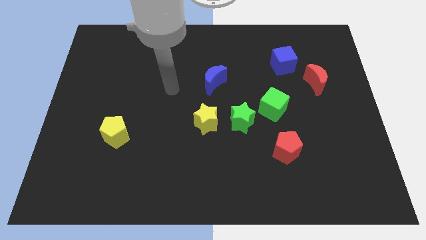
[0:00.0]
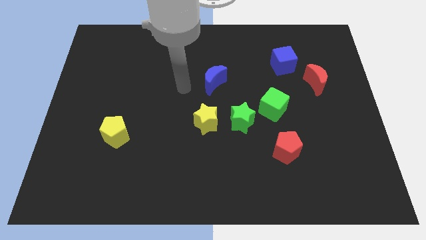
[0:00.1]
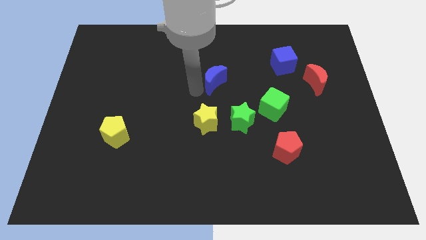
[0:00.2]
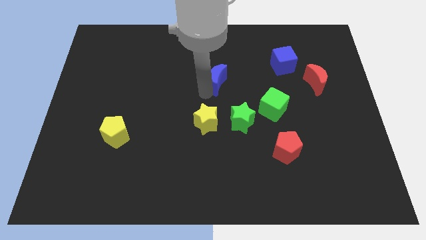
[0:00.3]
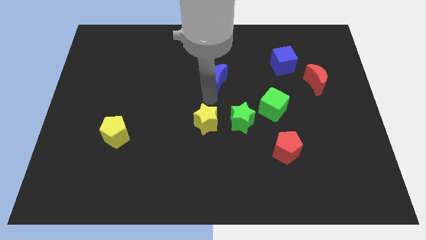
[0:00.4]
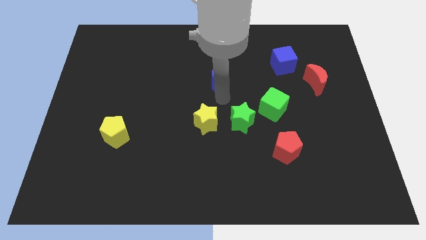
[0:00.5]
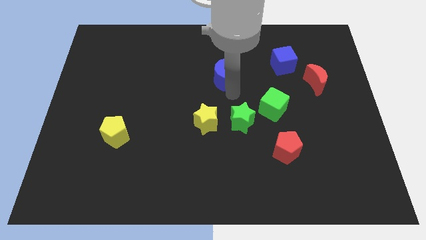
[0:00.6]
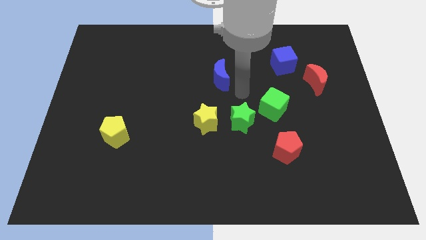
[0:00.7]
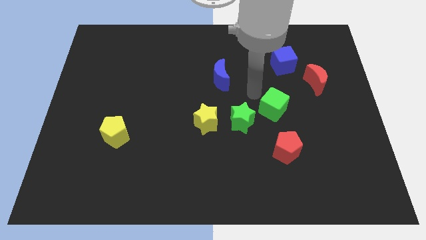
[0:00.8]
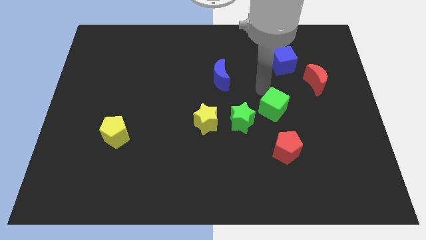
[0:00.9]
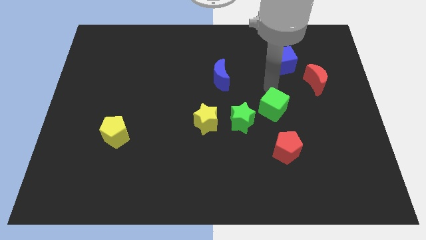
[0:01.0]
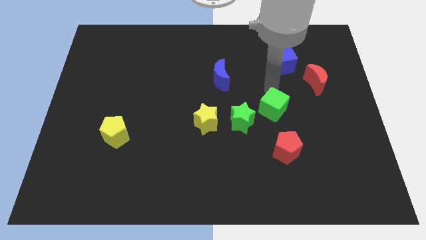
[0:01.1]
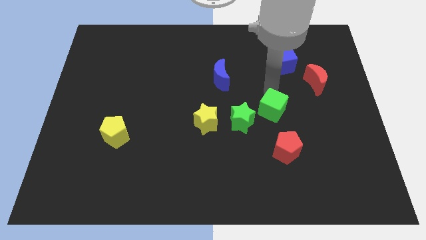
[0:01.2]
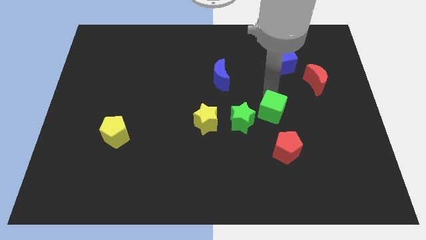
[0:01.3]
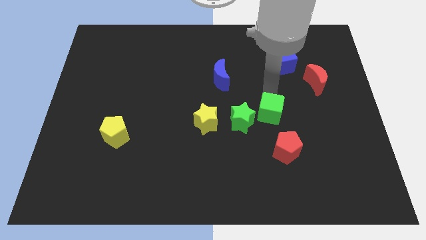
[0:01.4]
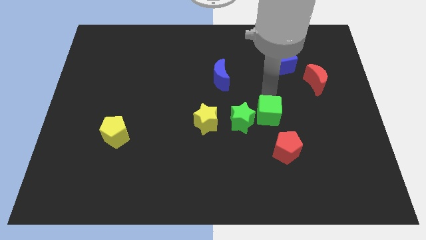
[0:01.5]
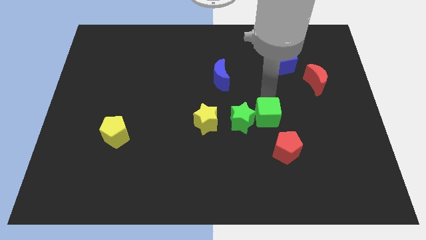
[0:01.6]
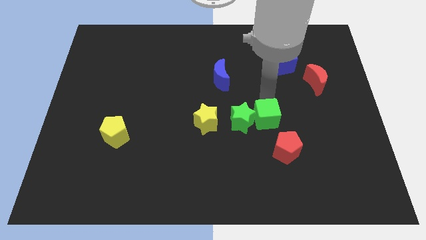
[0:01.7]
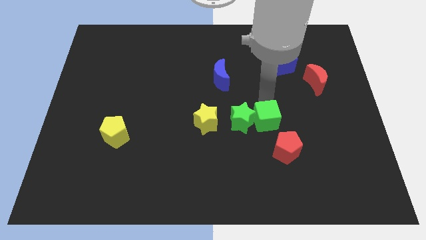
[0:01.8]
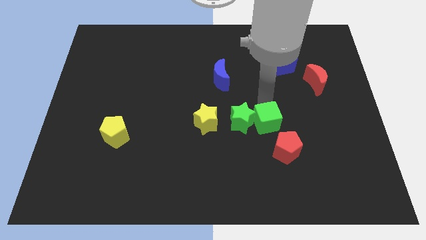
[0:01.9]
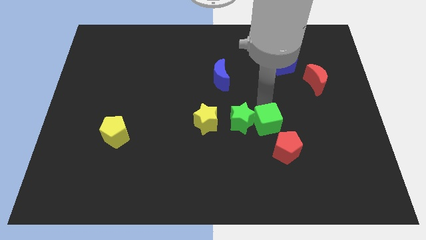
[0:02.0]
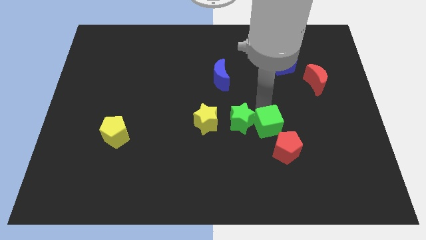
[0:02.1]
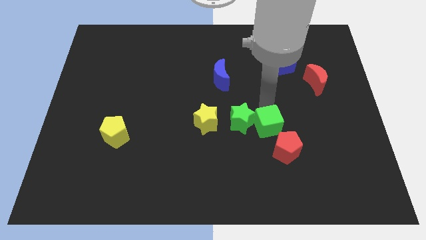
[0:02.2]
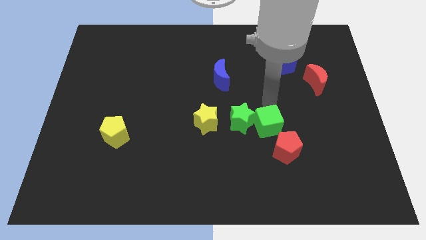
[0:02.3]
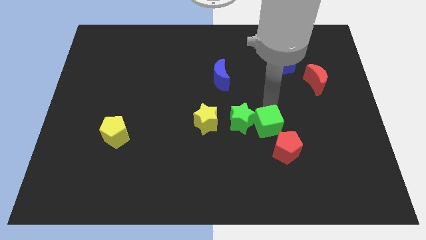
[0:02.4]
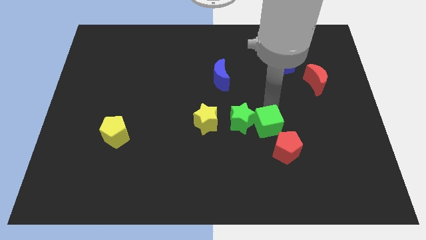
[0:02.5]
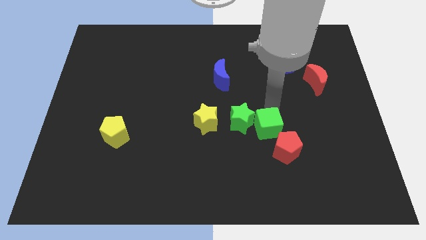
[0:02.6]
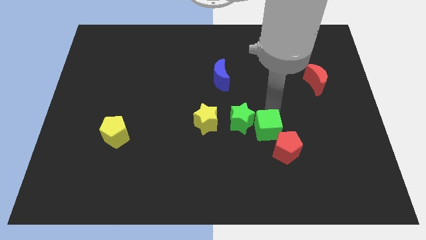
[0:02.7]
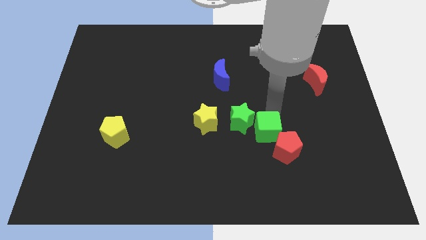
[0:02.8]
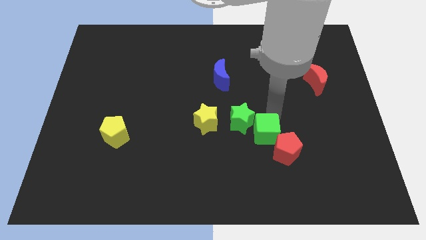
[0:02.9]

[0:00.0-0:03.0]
move the green cube down a little

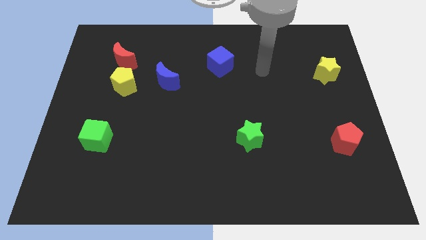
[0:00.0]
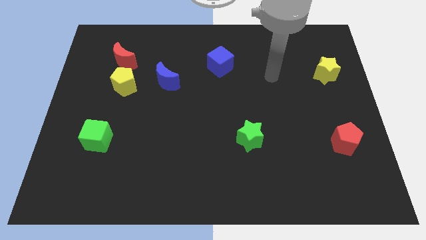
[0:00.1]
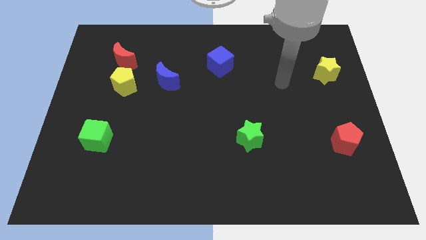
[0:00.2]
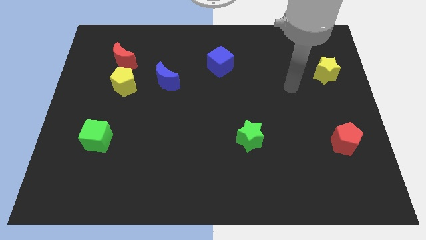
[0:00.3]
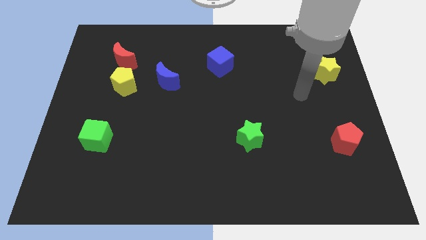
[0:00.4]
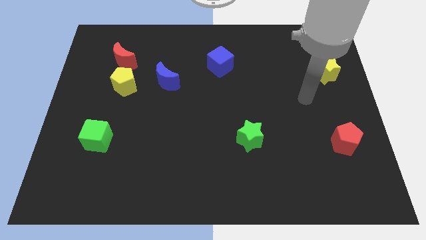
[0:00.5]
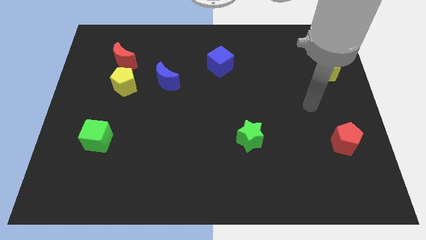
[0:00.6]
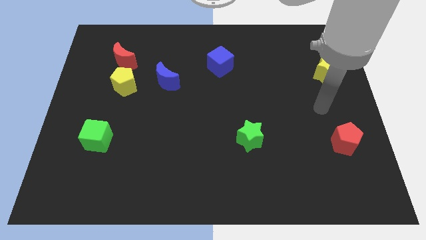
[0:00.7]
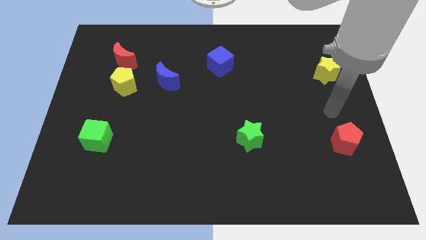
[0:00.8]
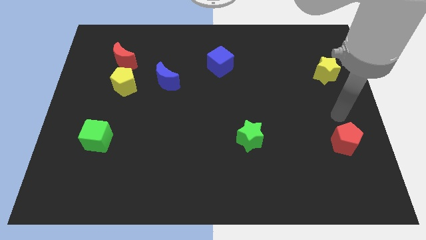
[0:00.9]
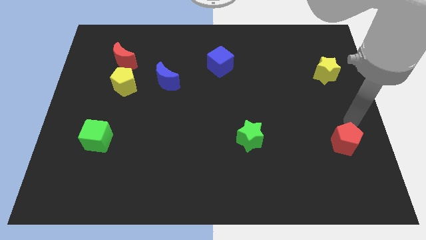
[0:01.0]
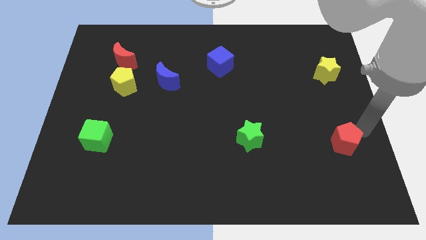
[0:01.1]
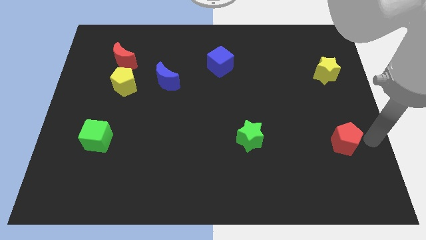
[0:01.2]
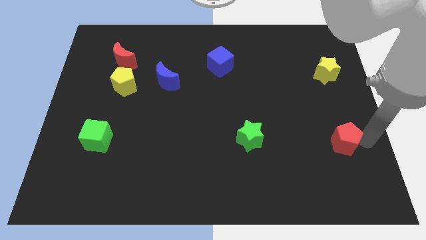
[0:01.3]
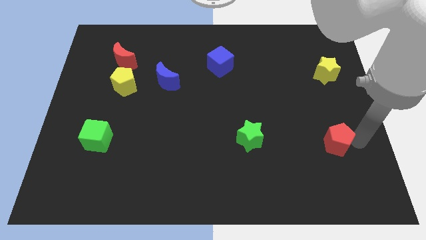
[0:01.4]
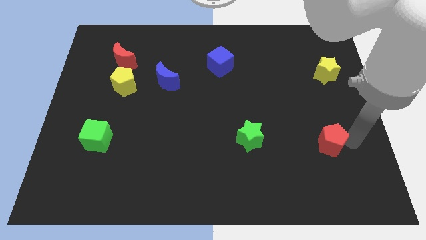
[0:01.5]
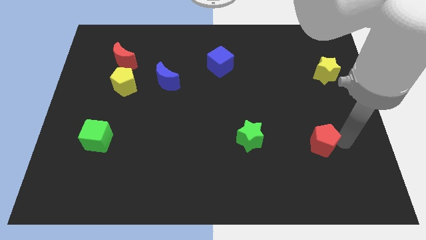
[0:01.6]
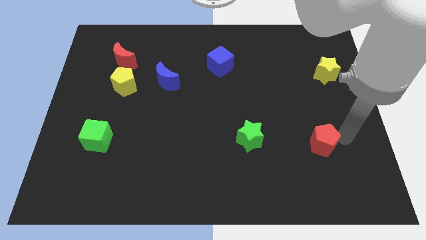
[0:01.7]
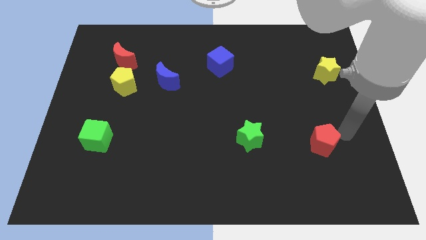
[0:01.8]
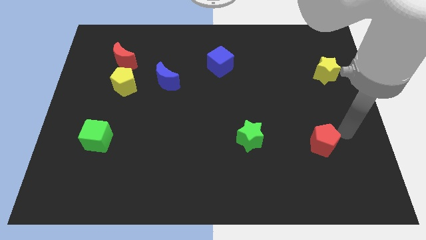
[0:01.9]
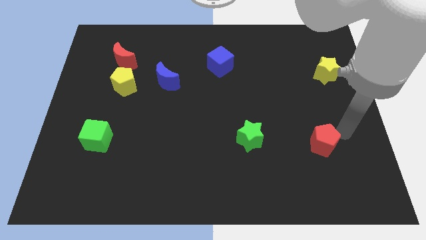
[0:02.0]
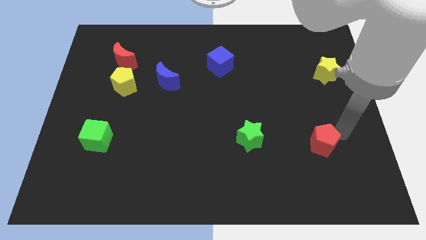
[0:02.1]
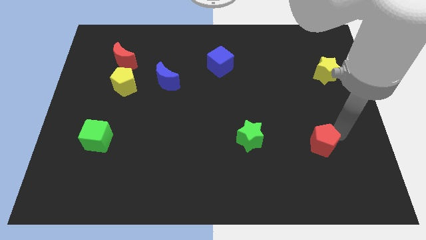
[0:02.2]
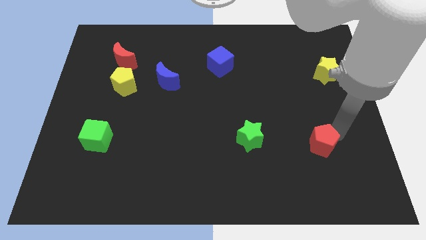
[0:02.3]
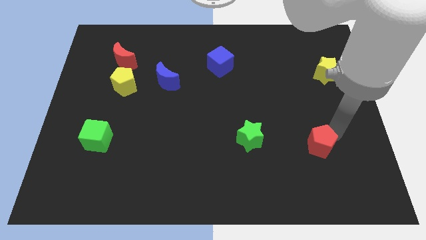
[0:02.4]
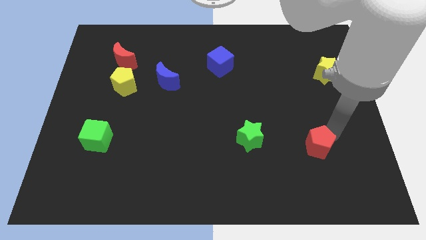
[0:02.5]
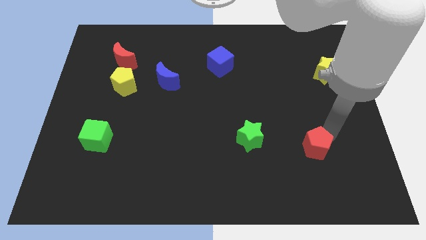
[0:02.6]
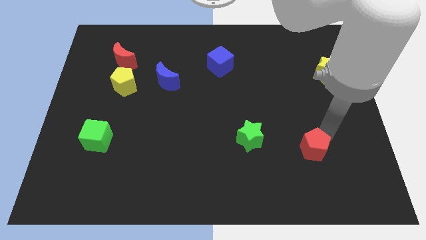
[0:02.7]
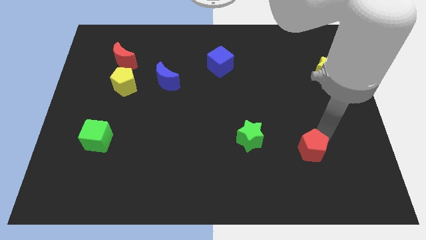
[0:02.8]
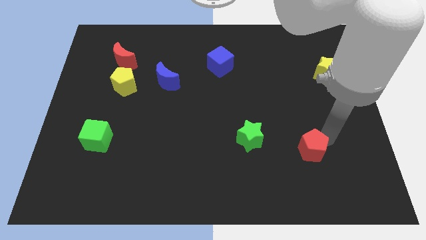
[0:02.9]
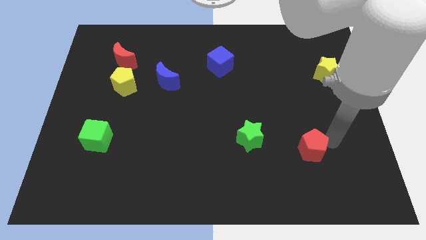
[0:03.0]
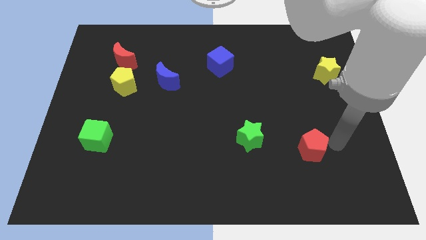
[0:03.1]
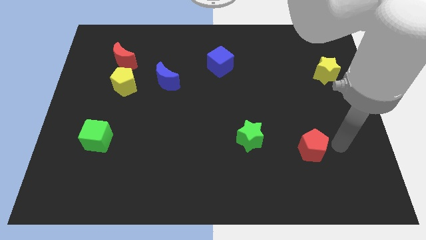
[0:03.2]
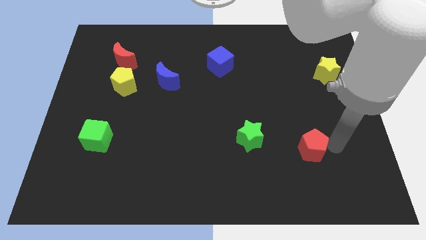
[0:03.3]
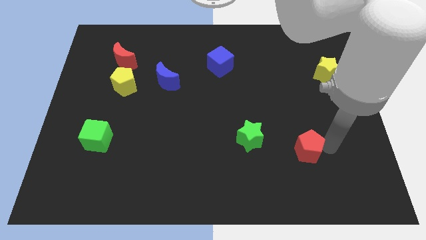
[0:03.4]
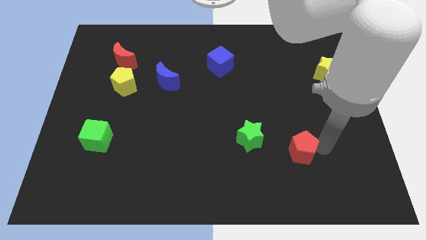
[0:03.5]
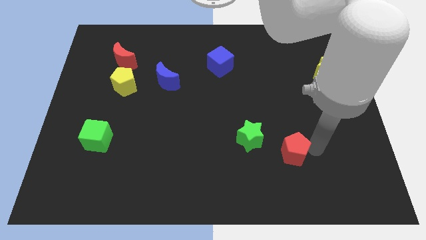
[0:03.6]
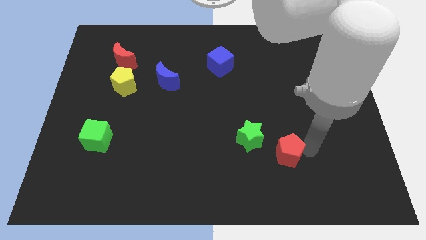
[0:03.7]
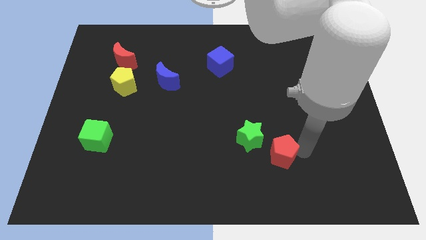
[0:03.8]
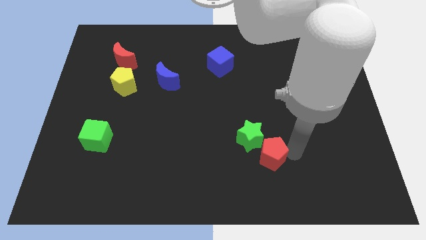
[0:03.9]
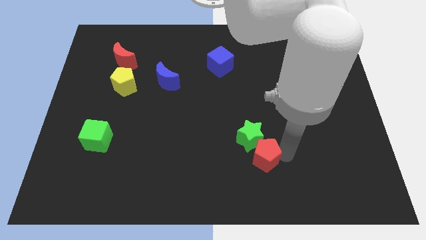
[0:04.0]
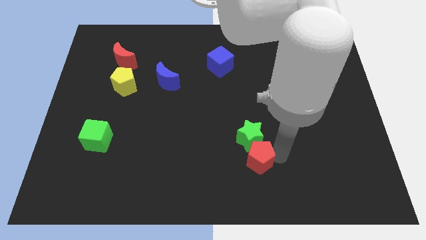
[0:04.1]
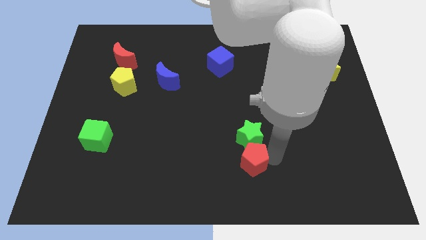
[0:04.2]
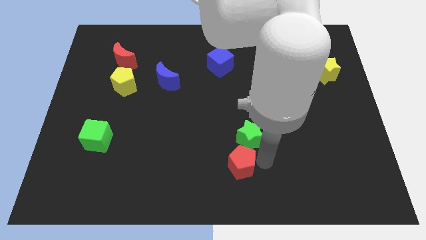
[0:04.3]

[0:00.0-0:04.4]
slide the red pentagon to the left

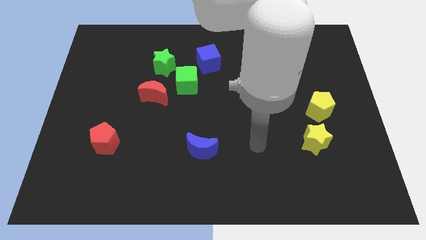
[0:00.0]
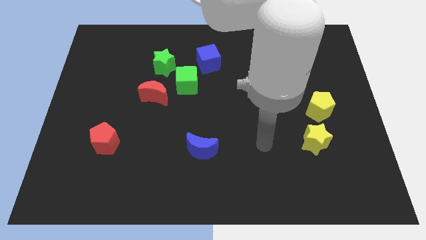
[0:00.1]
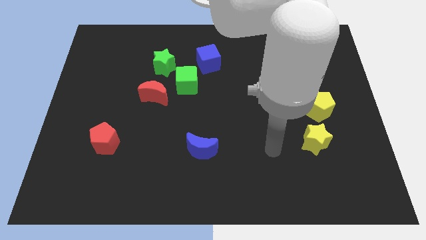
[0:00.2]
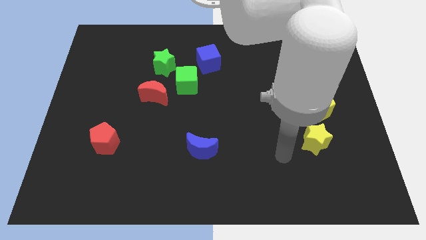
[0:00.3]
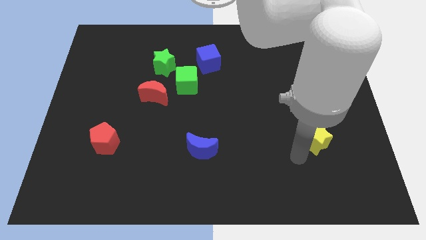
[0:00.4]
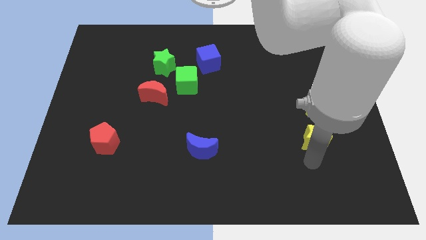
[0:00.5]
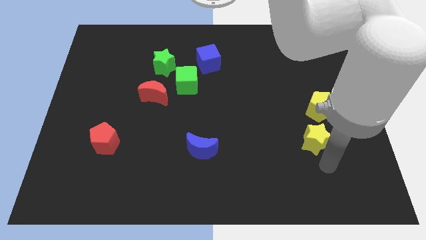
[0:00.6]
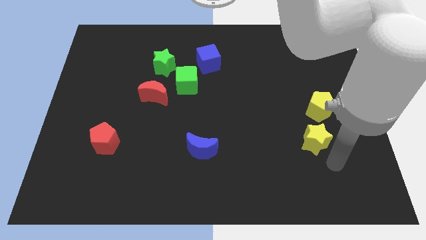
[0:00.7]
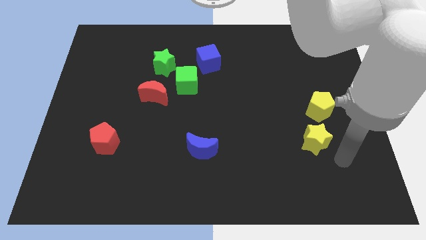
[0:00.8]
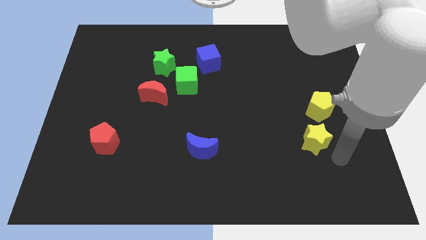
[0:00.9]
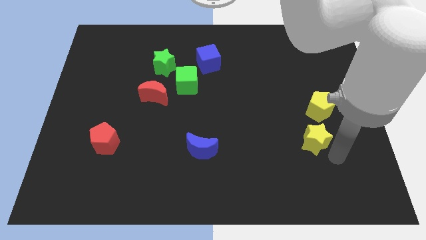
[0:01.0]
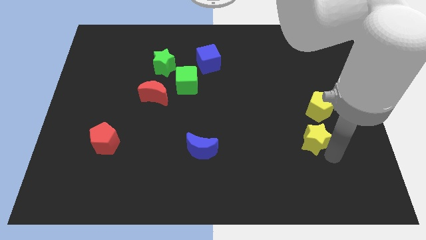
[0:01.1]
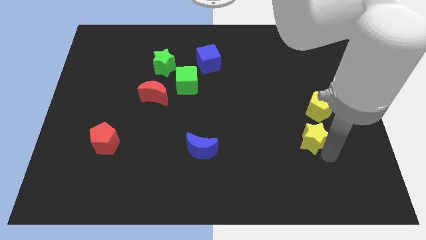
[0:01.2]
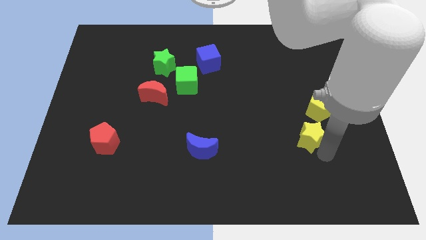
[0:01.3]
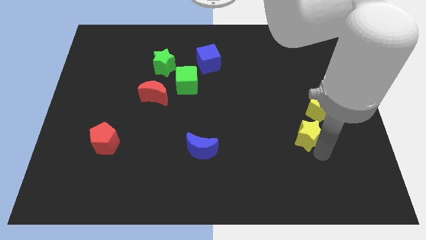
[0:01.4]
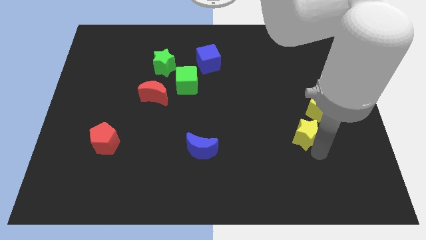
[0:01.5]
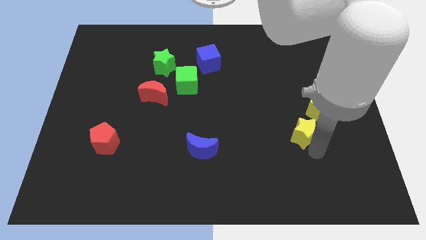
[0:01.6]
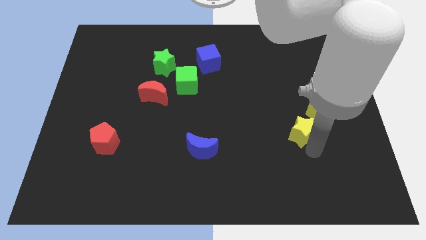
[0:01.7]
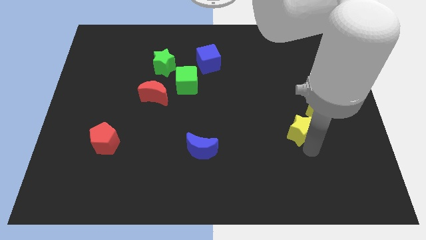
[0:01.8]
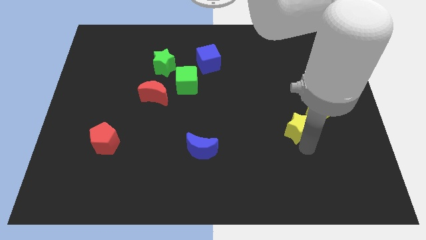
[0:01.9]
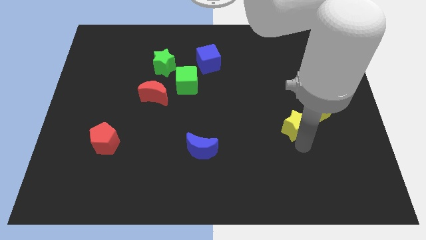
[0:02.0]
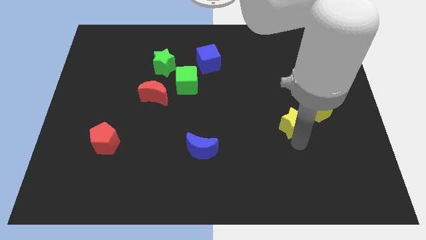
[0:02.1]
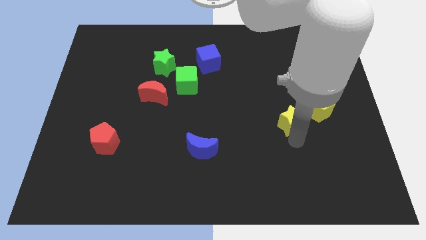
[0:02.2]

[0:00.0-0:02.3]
slightly slide the yellow star upwards and then left
